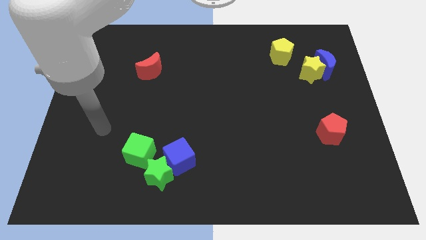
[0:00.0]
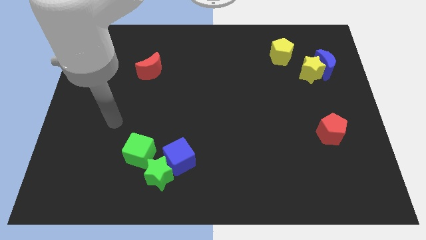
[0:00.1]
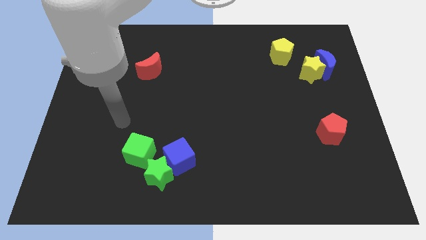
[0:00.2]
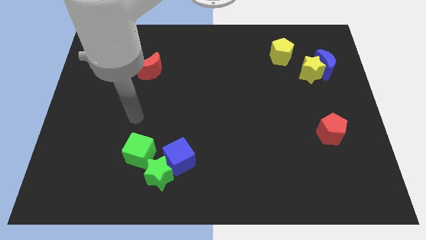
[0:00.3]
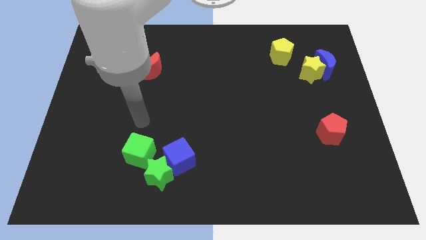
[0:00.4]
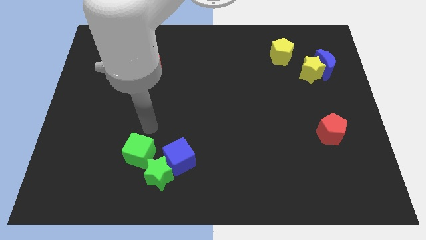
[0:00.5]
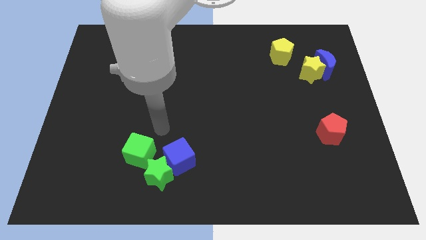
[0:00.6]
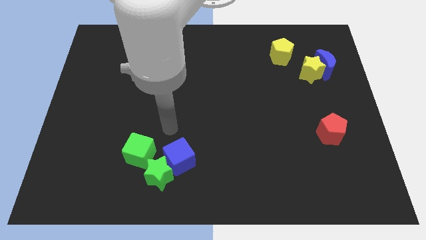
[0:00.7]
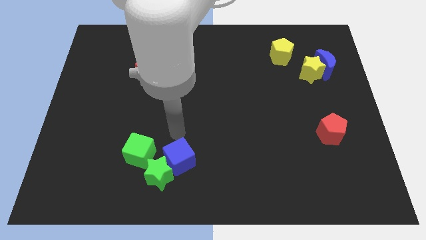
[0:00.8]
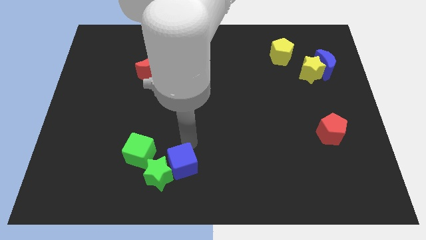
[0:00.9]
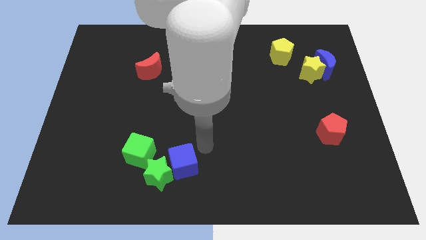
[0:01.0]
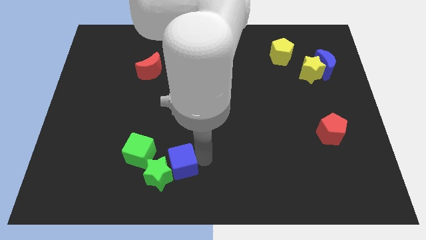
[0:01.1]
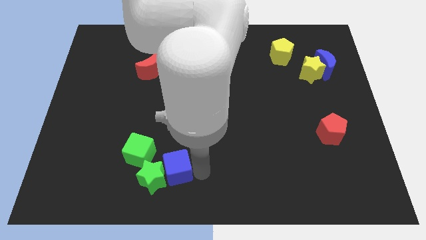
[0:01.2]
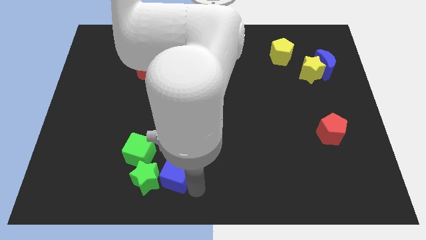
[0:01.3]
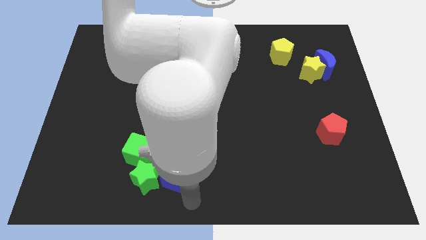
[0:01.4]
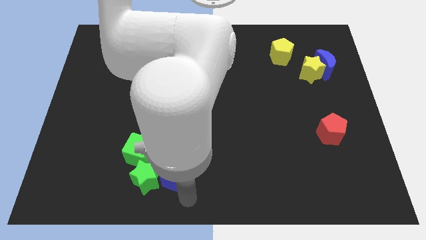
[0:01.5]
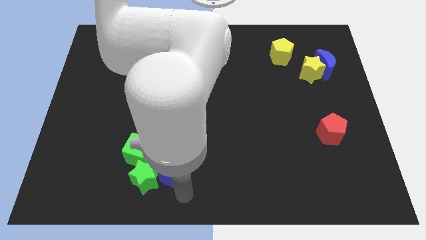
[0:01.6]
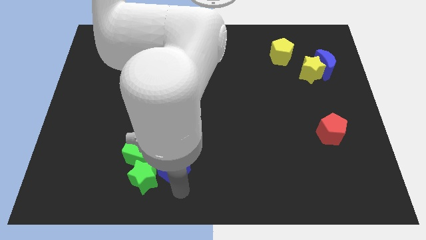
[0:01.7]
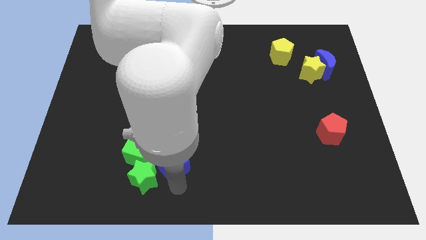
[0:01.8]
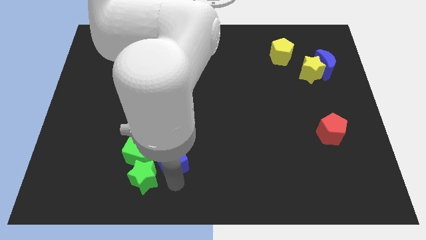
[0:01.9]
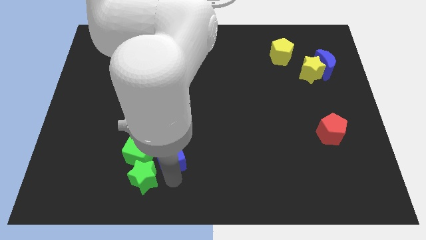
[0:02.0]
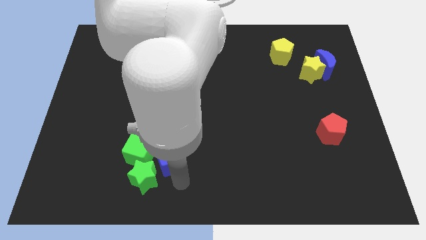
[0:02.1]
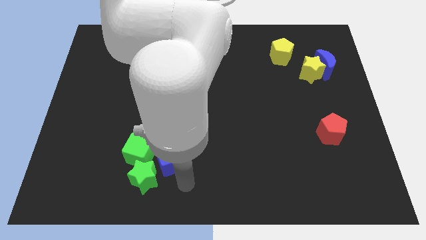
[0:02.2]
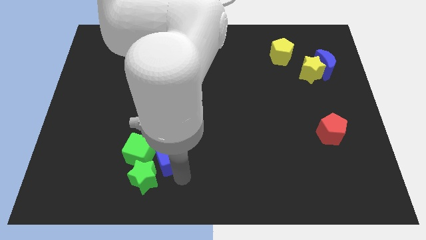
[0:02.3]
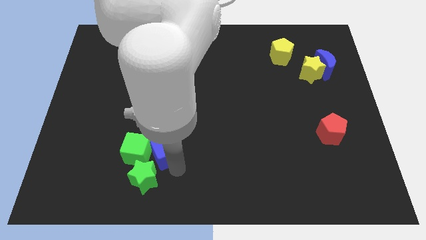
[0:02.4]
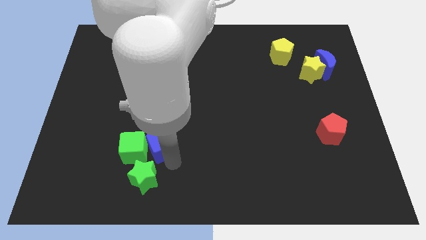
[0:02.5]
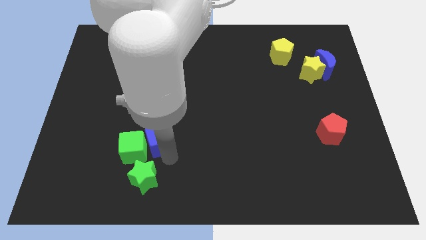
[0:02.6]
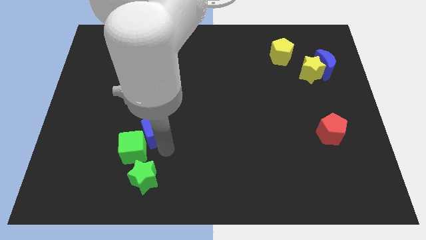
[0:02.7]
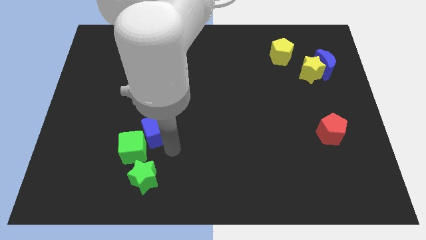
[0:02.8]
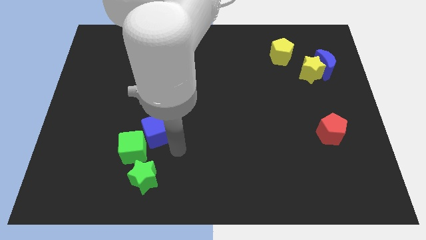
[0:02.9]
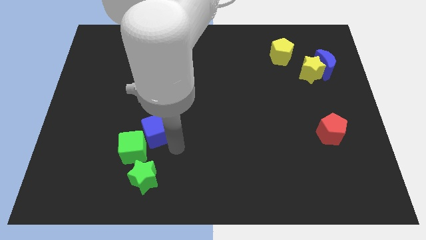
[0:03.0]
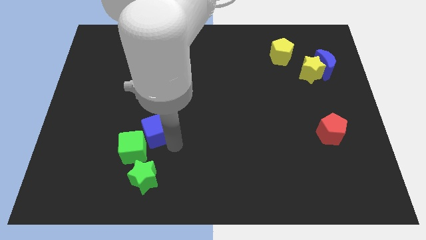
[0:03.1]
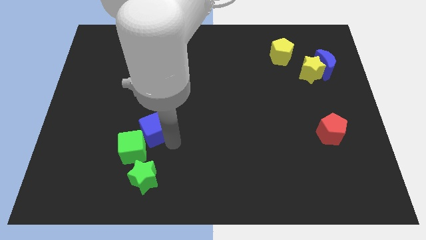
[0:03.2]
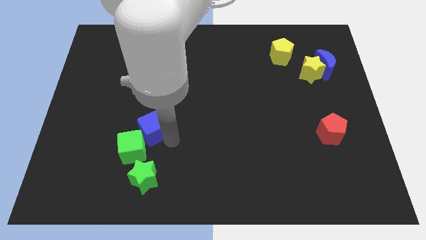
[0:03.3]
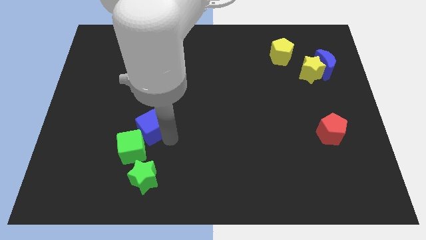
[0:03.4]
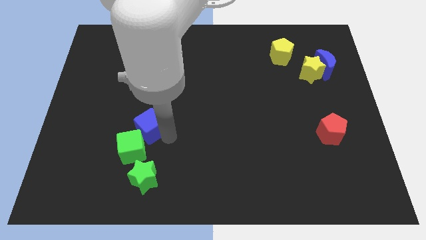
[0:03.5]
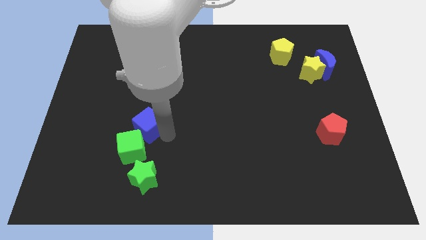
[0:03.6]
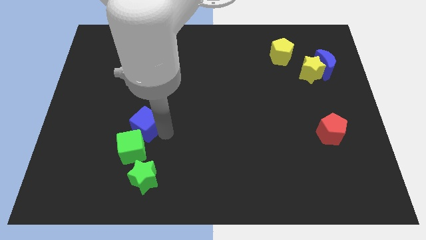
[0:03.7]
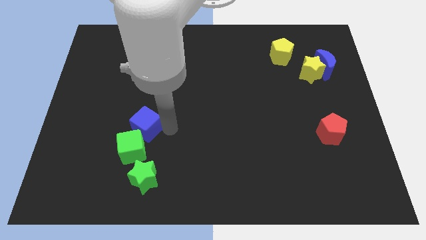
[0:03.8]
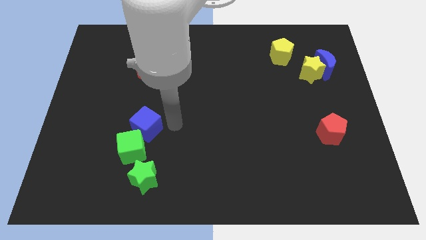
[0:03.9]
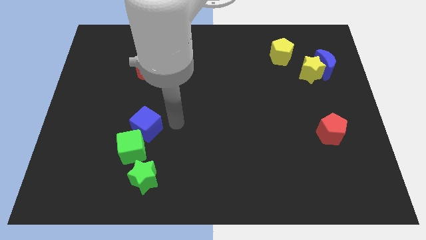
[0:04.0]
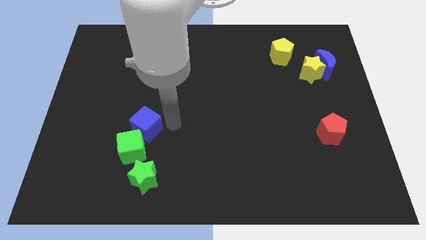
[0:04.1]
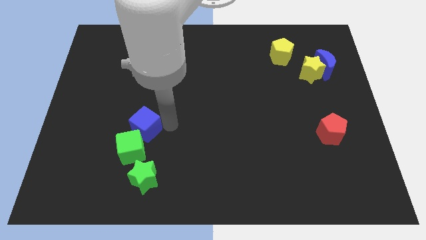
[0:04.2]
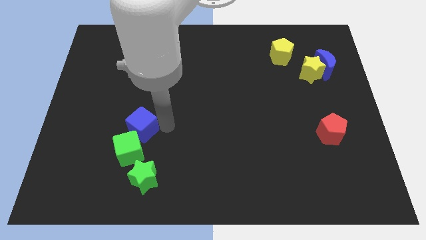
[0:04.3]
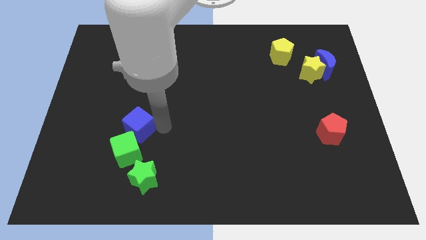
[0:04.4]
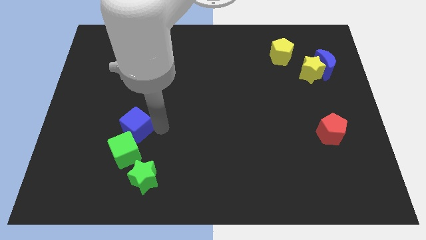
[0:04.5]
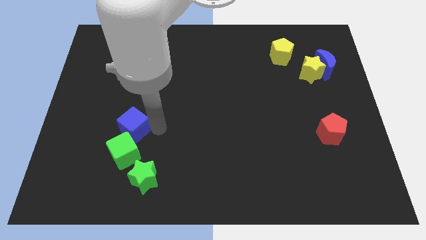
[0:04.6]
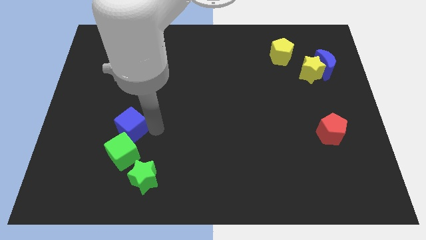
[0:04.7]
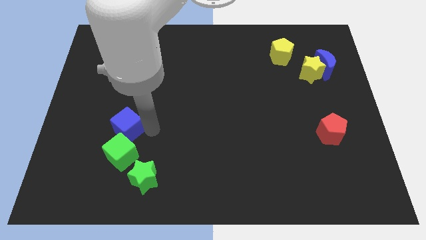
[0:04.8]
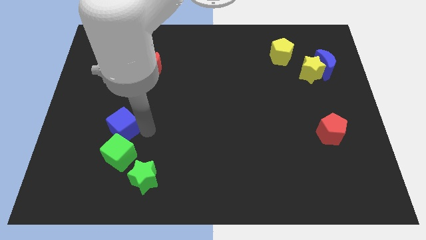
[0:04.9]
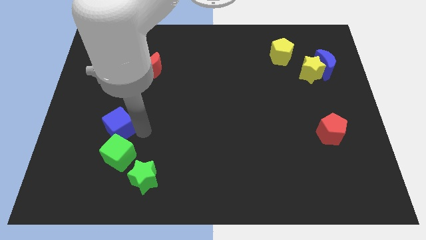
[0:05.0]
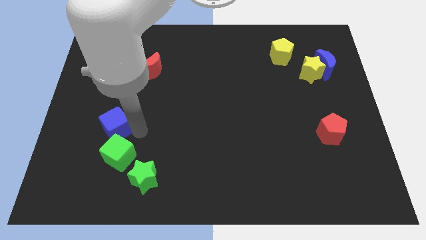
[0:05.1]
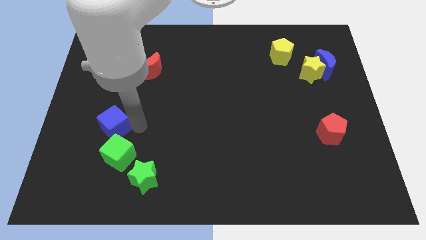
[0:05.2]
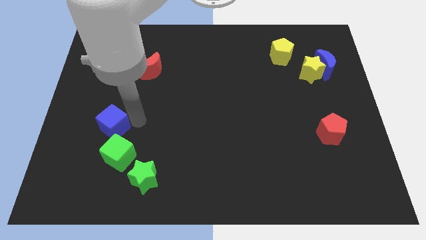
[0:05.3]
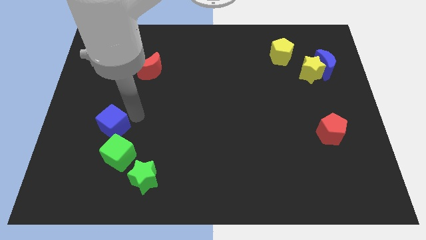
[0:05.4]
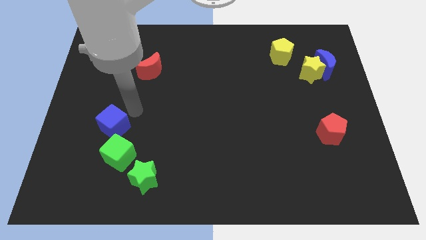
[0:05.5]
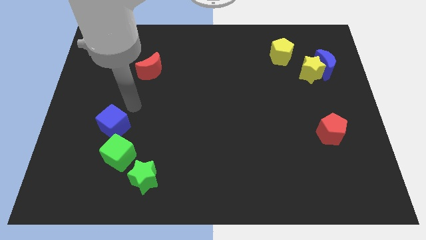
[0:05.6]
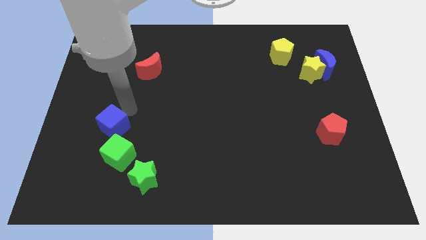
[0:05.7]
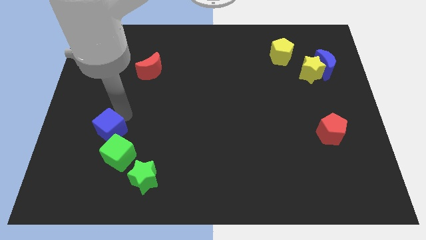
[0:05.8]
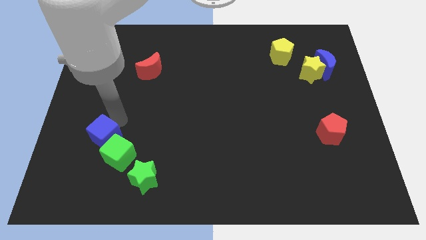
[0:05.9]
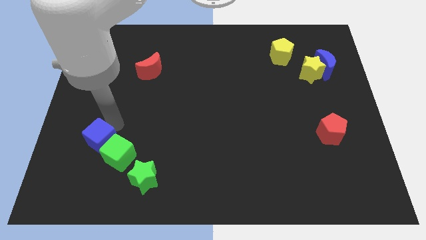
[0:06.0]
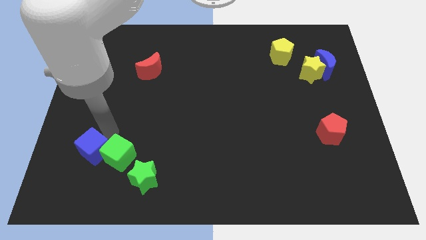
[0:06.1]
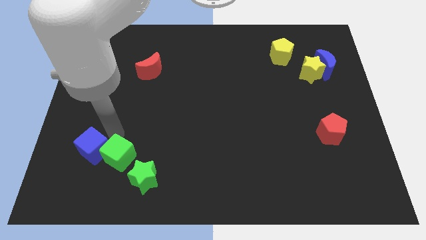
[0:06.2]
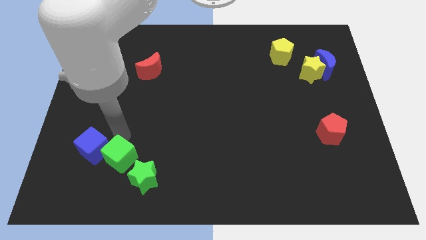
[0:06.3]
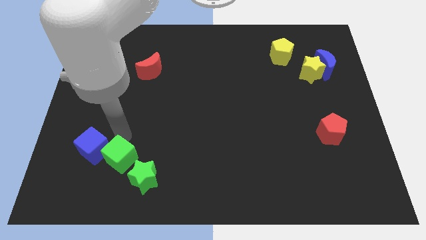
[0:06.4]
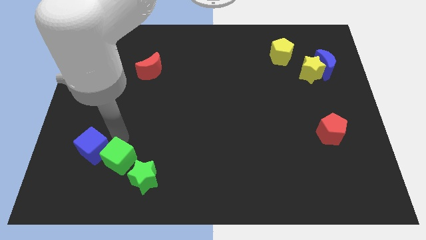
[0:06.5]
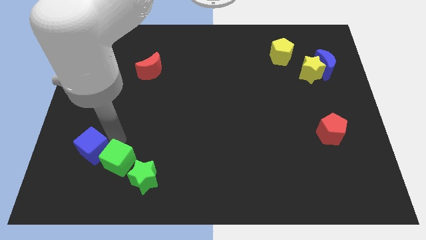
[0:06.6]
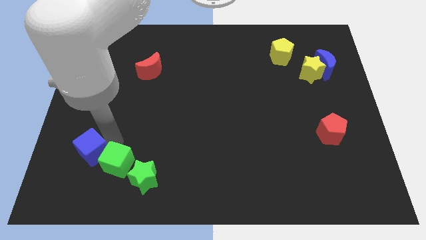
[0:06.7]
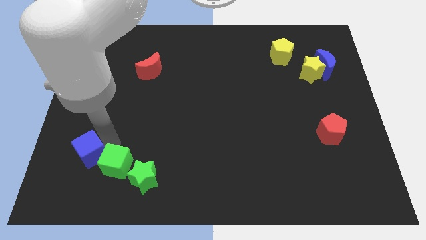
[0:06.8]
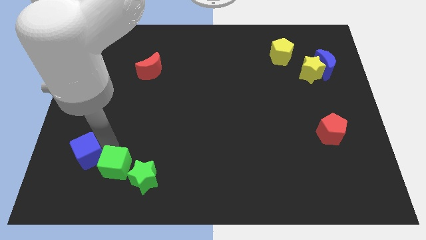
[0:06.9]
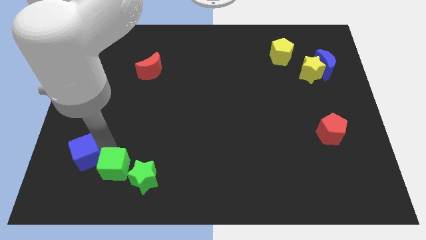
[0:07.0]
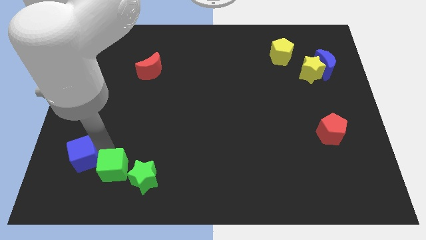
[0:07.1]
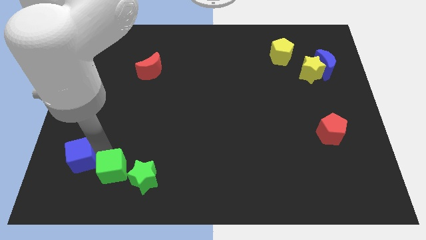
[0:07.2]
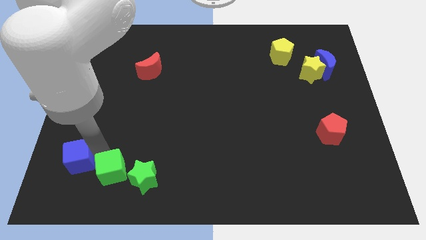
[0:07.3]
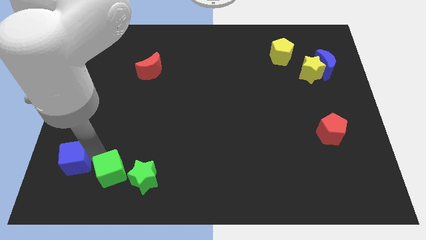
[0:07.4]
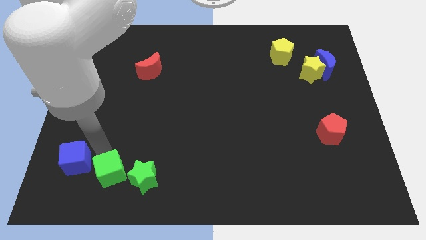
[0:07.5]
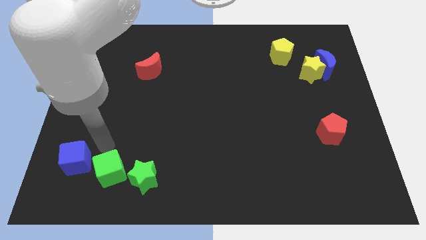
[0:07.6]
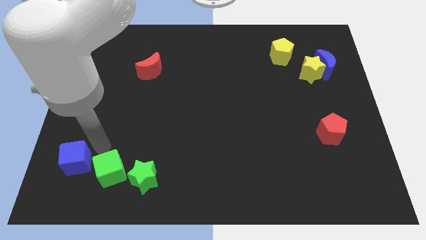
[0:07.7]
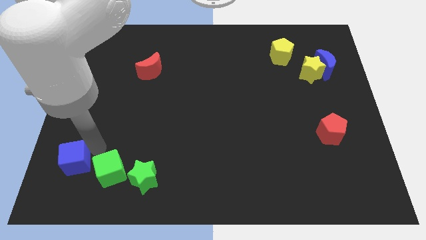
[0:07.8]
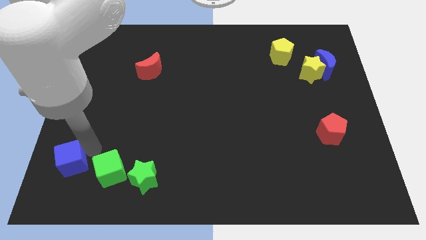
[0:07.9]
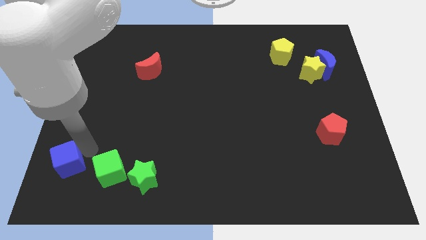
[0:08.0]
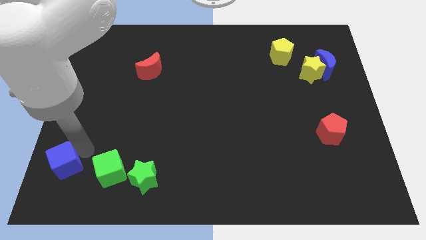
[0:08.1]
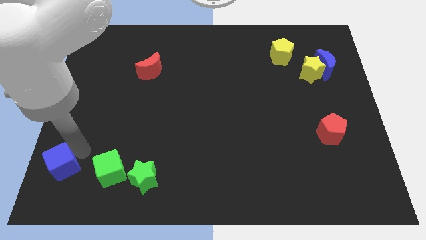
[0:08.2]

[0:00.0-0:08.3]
put the blue cube to the lower left corner
